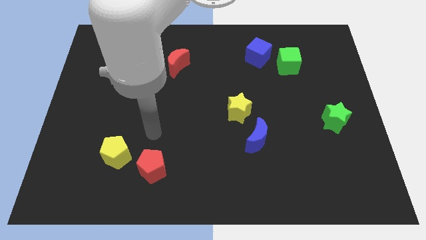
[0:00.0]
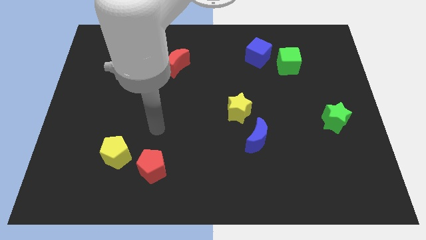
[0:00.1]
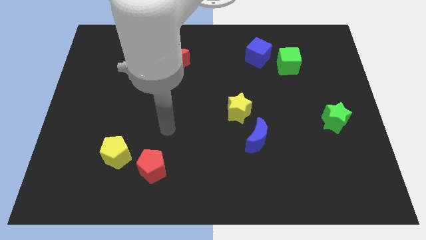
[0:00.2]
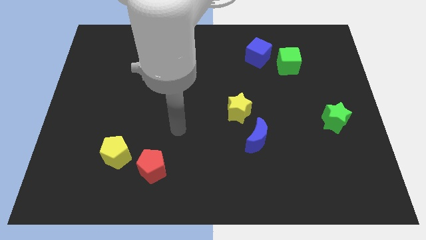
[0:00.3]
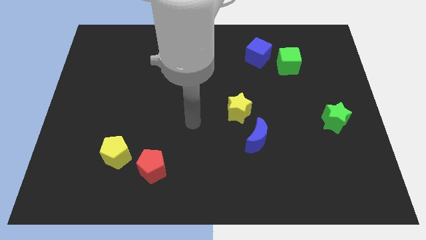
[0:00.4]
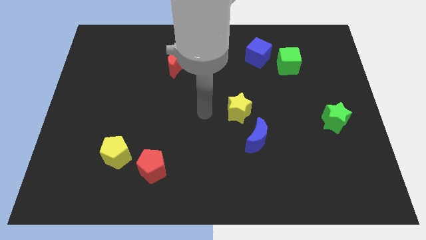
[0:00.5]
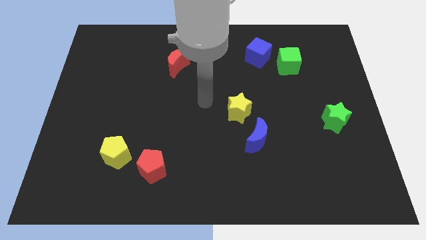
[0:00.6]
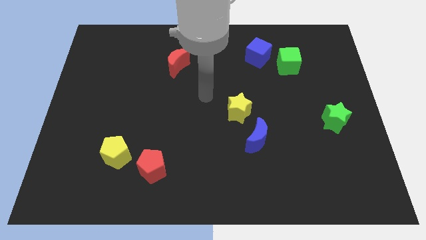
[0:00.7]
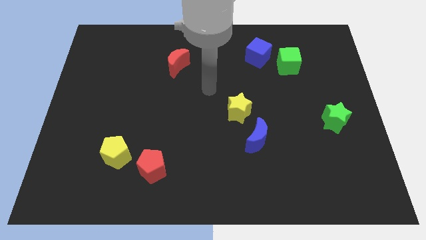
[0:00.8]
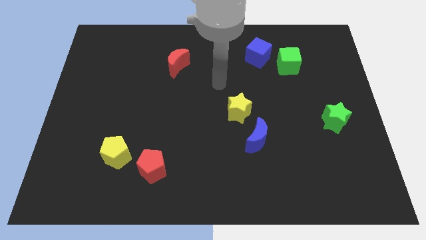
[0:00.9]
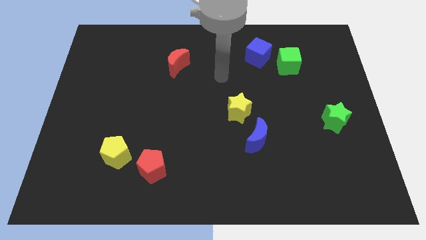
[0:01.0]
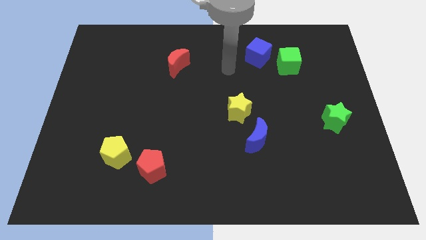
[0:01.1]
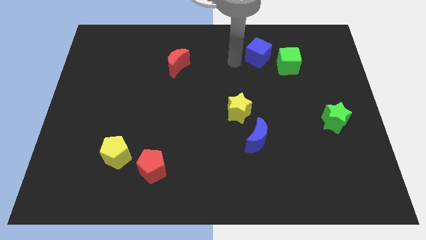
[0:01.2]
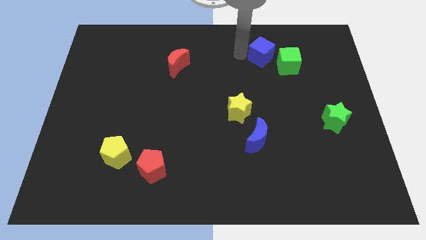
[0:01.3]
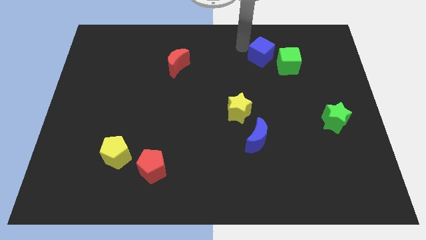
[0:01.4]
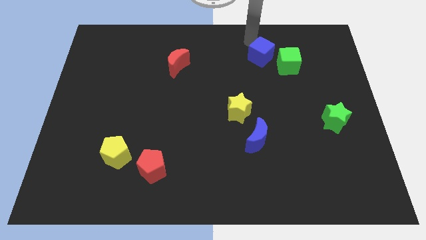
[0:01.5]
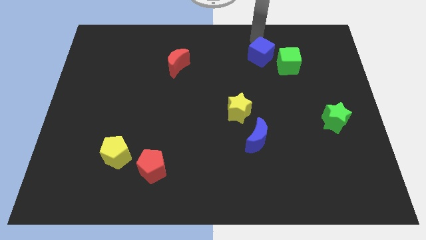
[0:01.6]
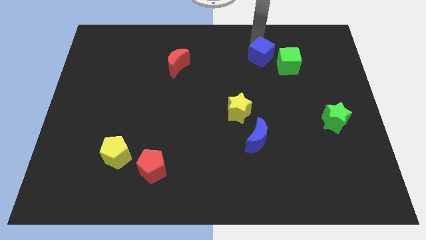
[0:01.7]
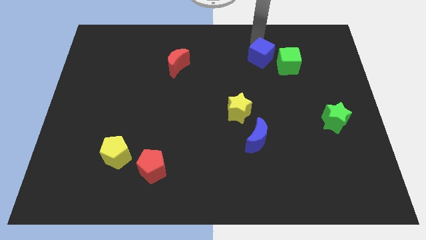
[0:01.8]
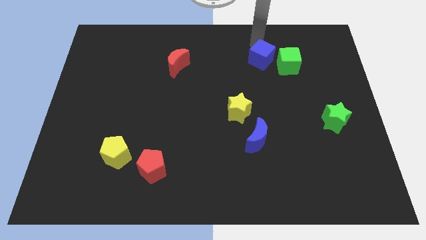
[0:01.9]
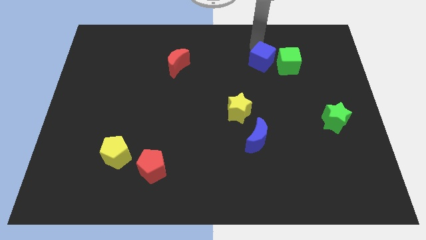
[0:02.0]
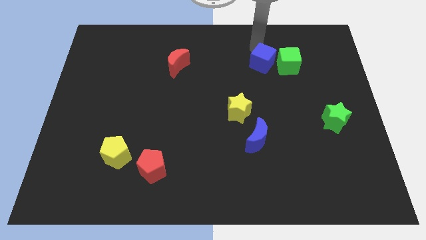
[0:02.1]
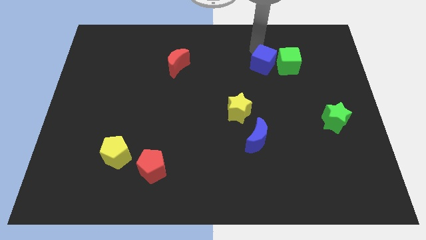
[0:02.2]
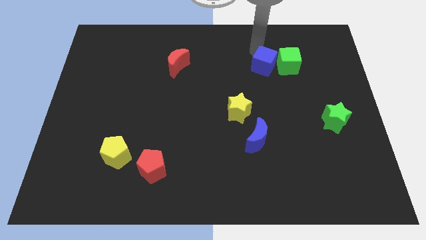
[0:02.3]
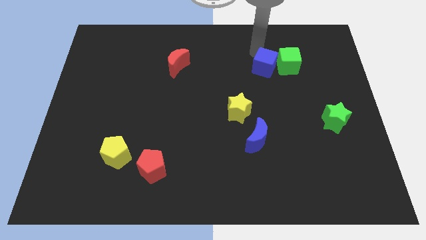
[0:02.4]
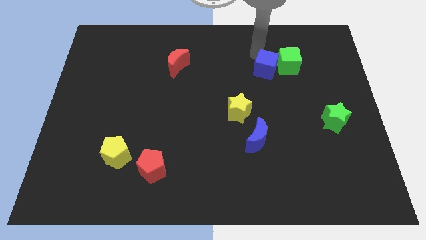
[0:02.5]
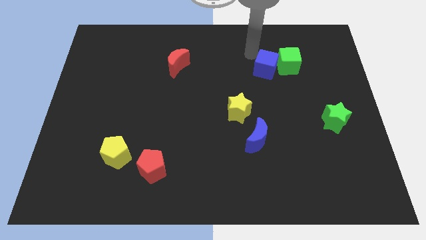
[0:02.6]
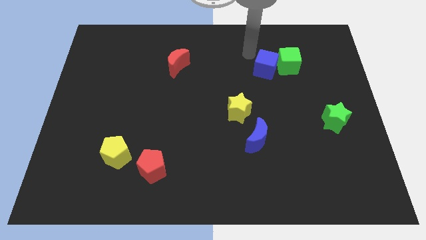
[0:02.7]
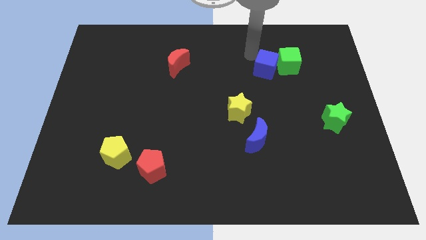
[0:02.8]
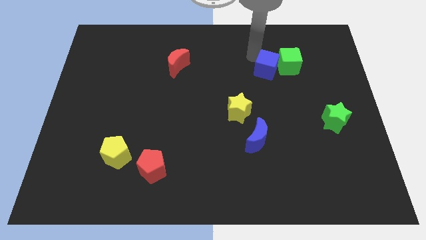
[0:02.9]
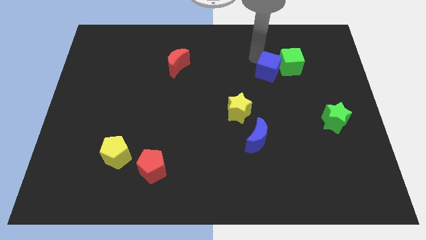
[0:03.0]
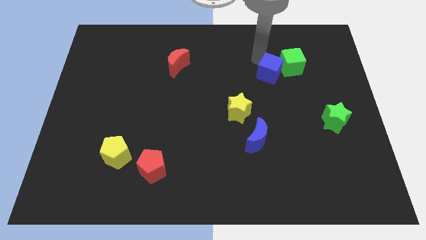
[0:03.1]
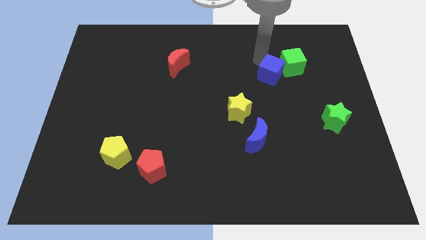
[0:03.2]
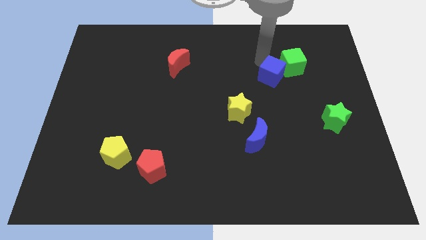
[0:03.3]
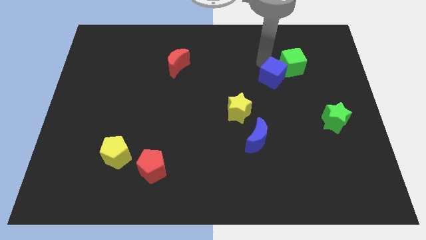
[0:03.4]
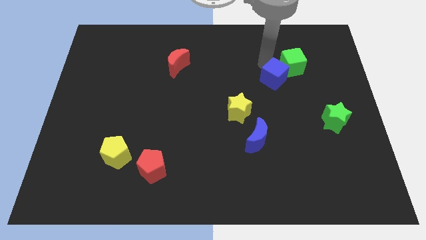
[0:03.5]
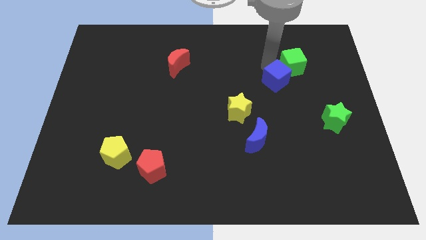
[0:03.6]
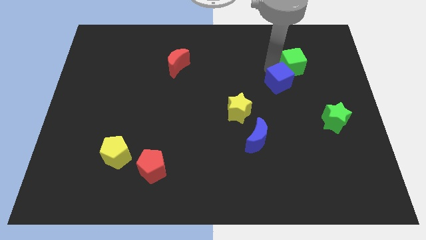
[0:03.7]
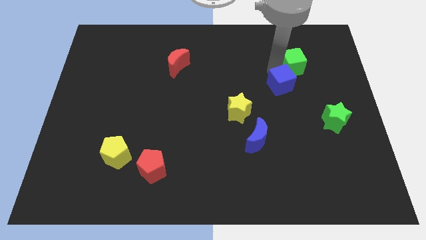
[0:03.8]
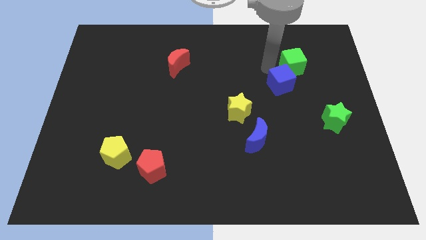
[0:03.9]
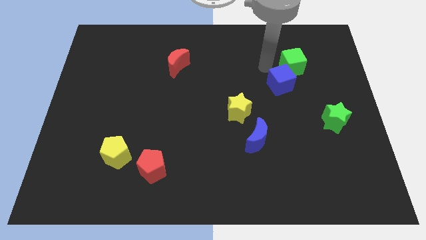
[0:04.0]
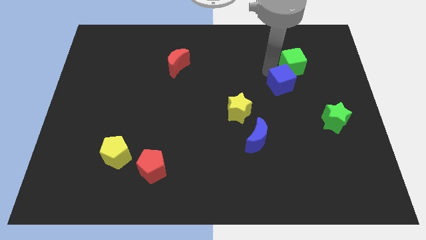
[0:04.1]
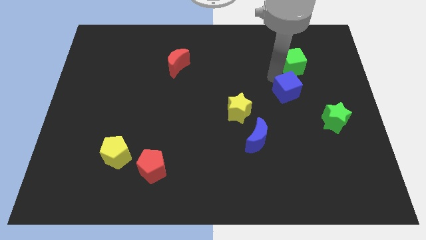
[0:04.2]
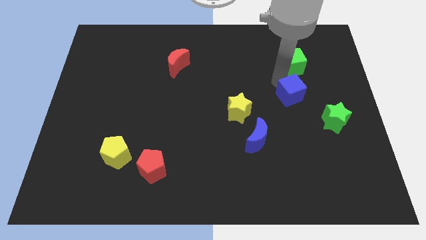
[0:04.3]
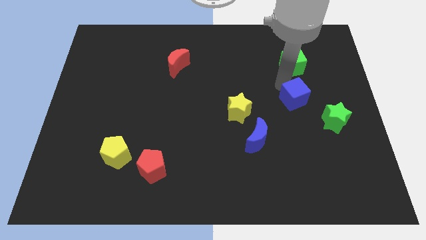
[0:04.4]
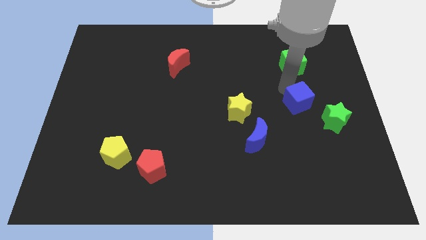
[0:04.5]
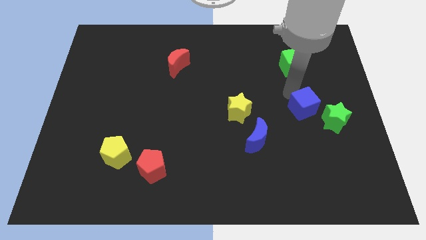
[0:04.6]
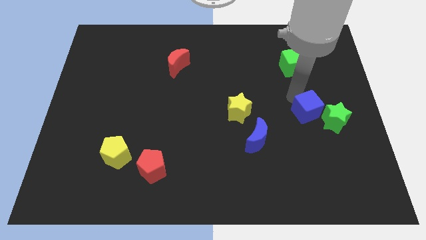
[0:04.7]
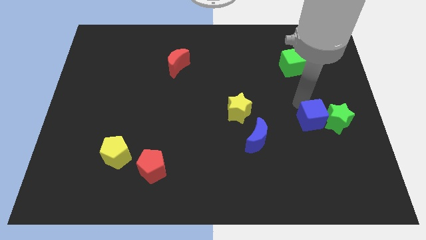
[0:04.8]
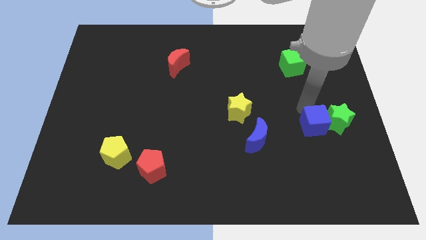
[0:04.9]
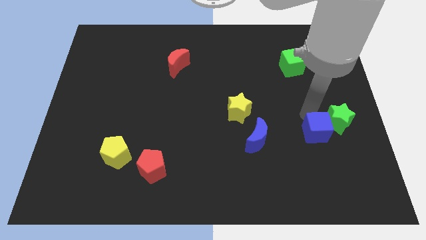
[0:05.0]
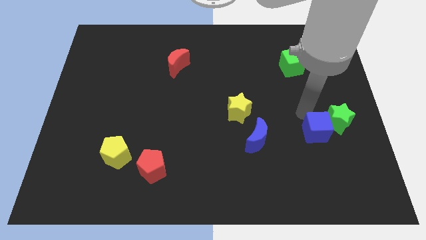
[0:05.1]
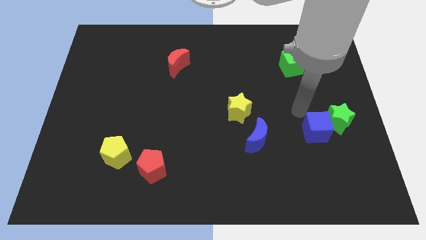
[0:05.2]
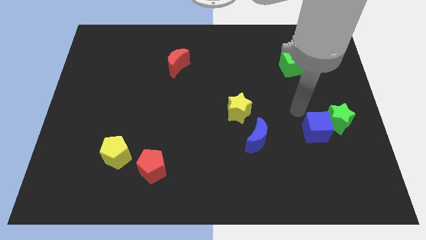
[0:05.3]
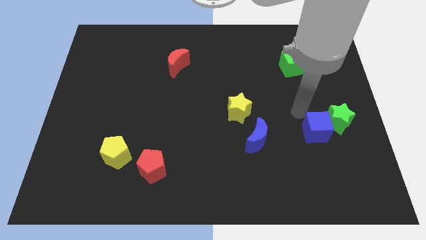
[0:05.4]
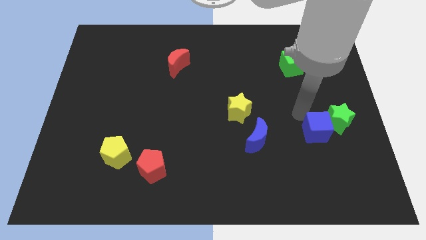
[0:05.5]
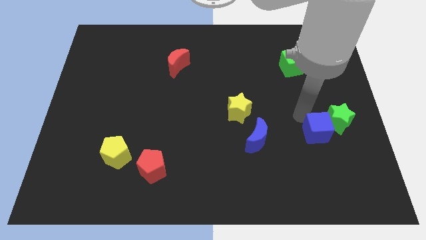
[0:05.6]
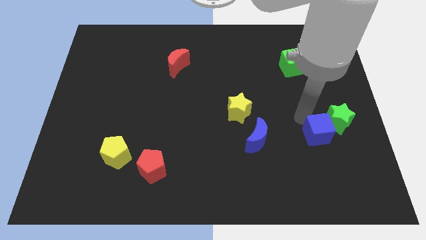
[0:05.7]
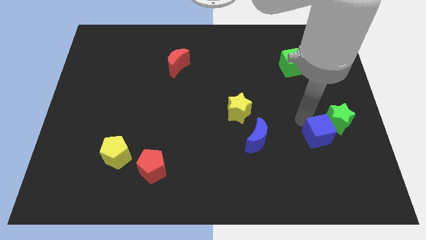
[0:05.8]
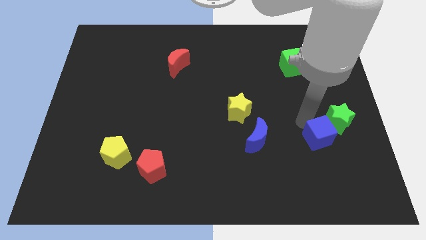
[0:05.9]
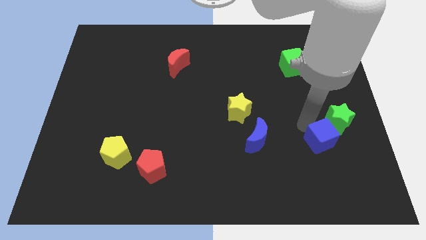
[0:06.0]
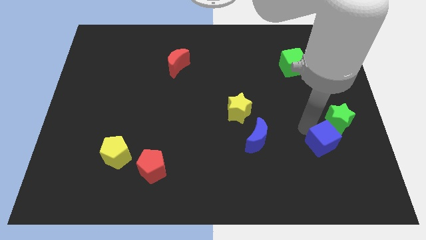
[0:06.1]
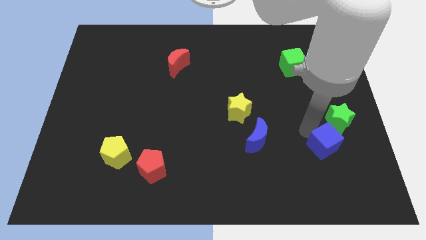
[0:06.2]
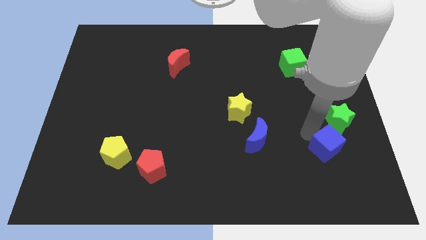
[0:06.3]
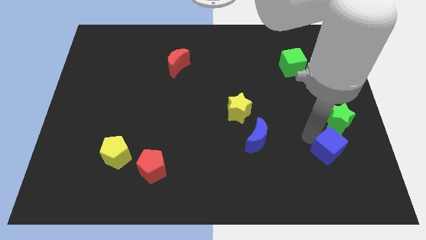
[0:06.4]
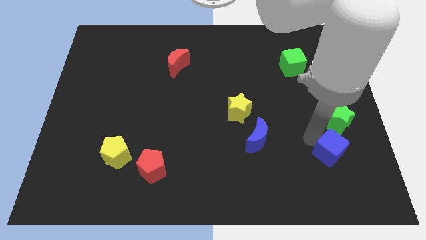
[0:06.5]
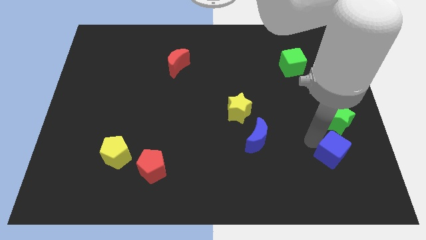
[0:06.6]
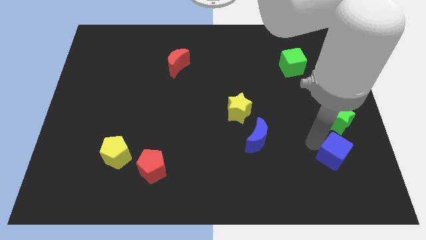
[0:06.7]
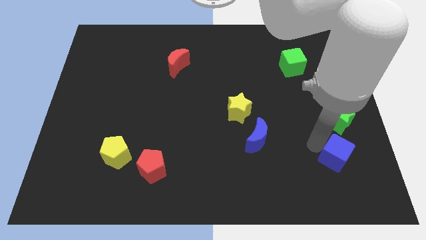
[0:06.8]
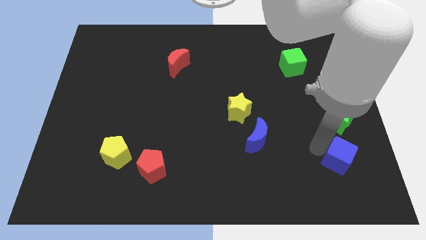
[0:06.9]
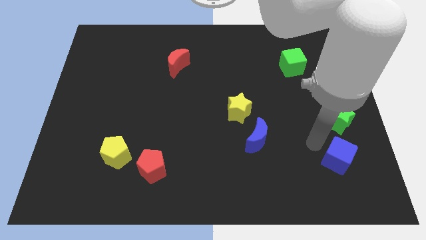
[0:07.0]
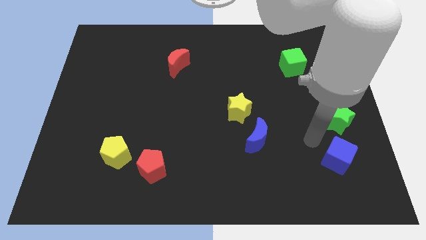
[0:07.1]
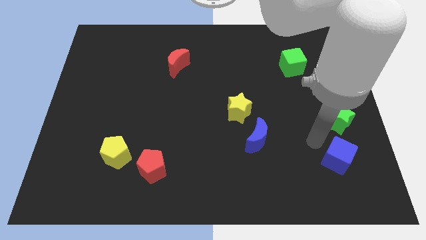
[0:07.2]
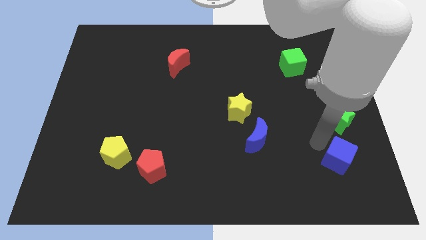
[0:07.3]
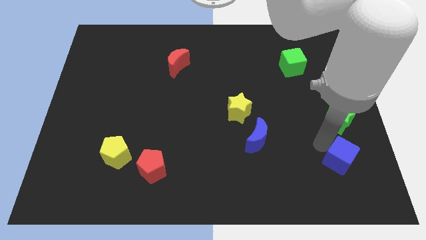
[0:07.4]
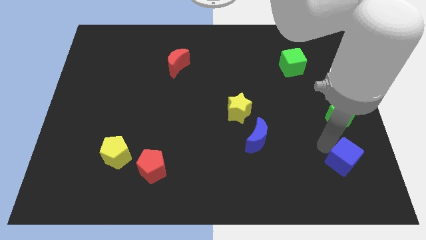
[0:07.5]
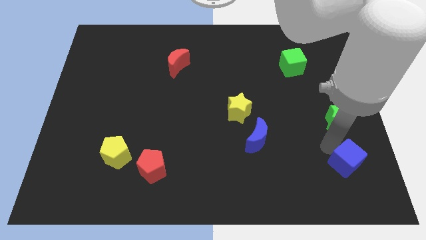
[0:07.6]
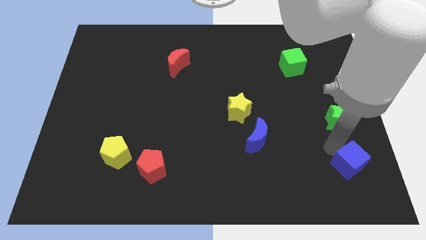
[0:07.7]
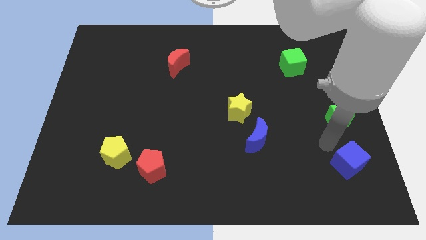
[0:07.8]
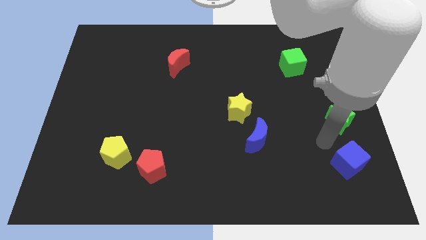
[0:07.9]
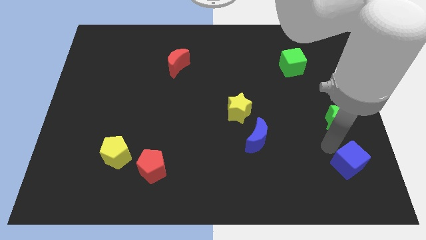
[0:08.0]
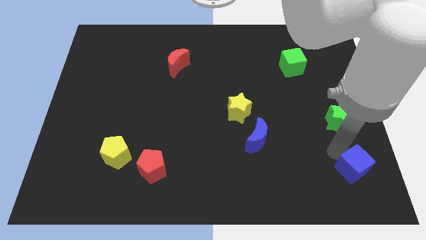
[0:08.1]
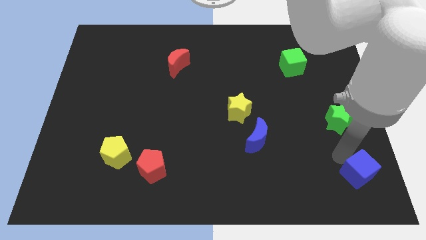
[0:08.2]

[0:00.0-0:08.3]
push the blue cube to the bottom right of the board
